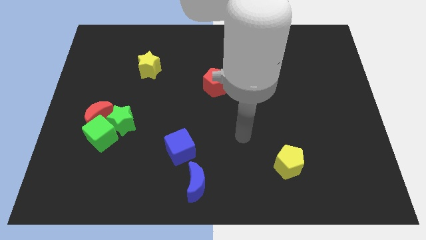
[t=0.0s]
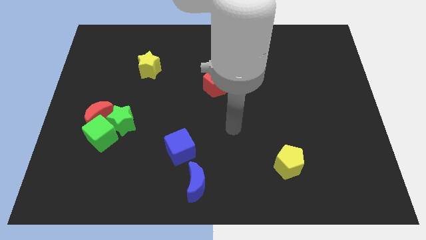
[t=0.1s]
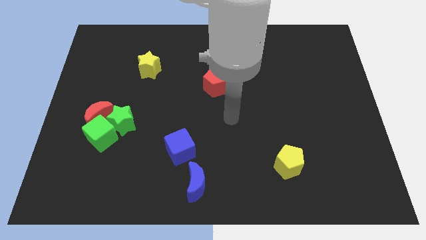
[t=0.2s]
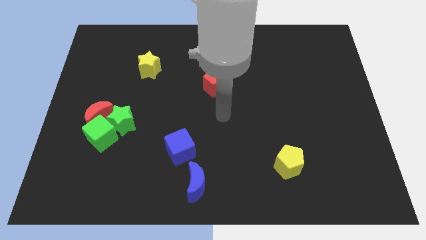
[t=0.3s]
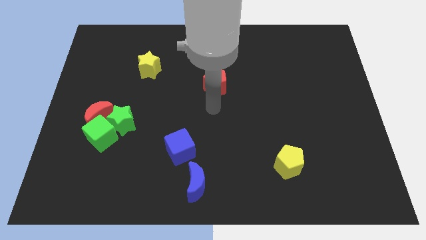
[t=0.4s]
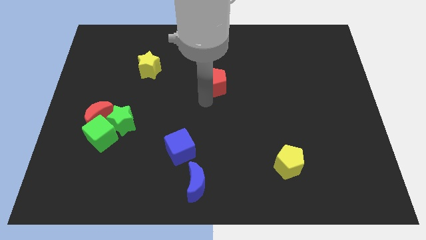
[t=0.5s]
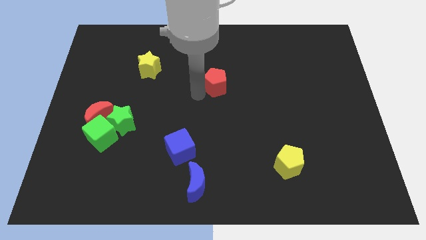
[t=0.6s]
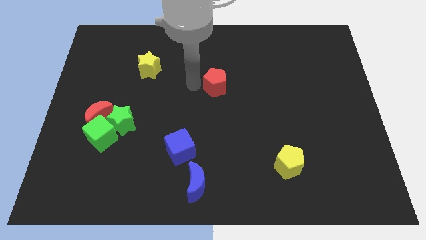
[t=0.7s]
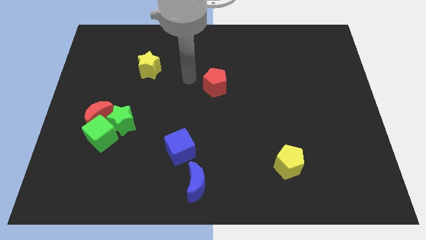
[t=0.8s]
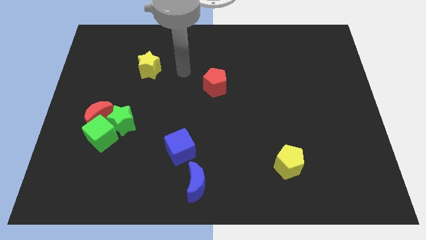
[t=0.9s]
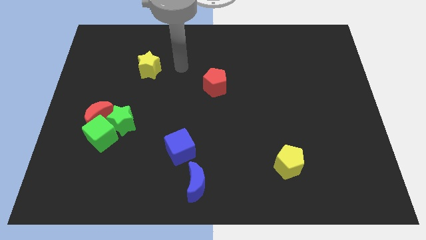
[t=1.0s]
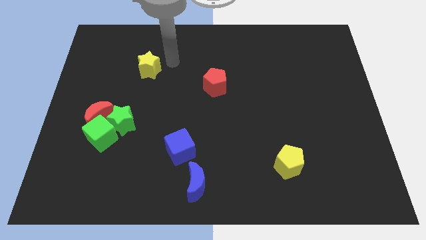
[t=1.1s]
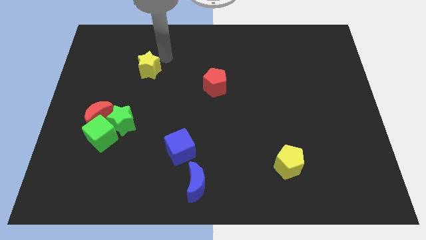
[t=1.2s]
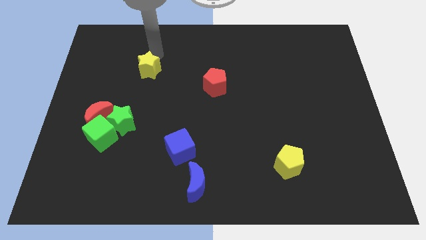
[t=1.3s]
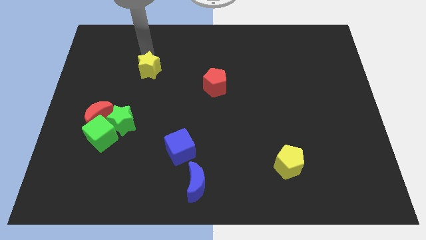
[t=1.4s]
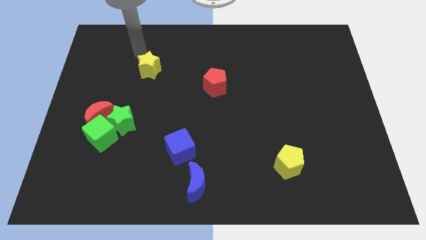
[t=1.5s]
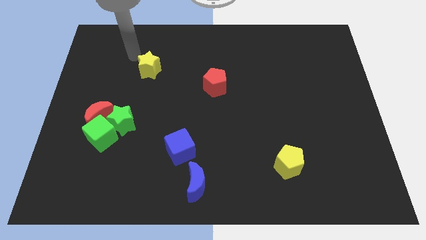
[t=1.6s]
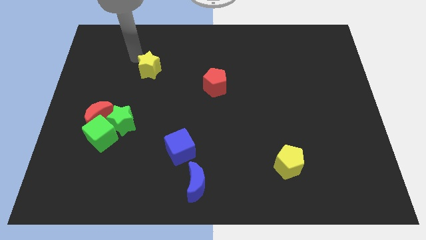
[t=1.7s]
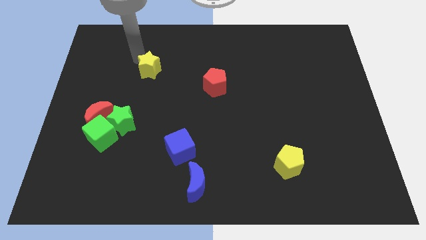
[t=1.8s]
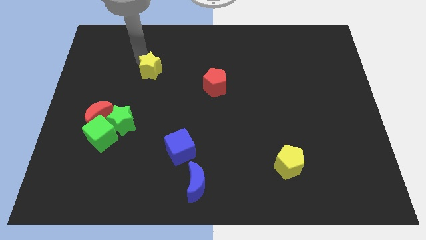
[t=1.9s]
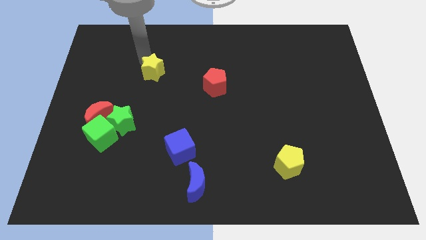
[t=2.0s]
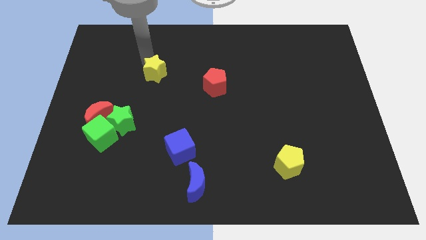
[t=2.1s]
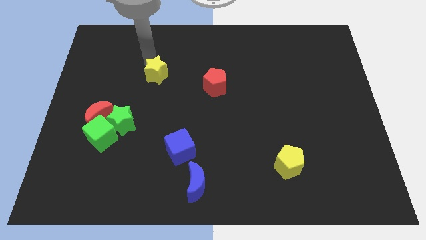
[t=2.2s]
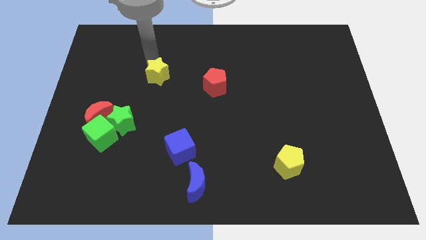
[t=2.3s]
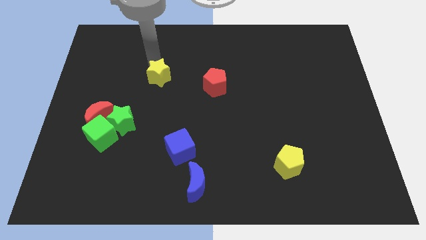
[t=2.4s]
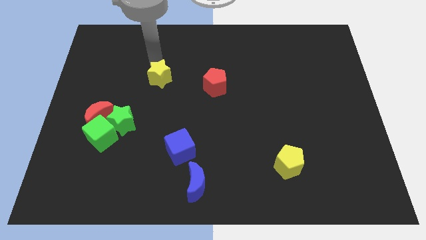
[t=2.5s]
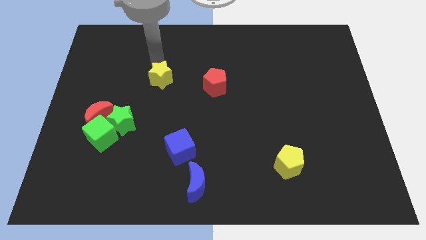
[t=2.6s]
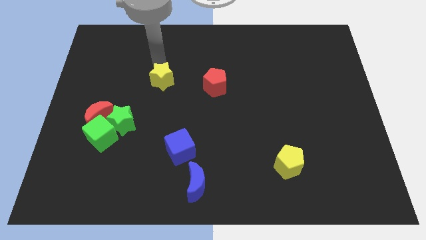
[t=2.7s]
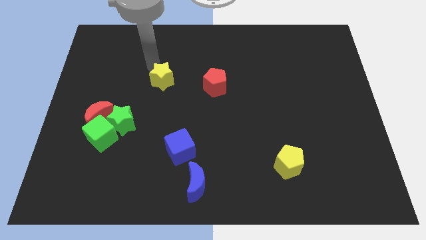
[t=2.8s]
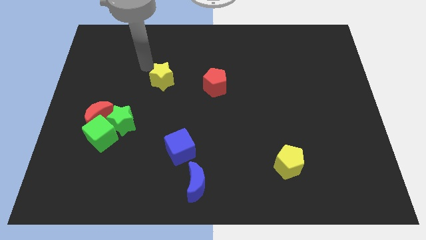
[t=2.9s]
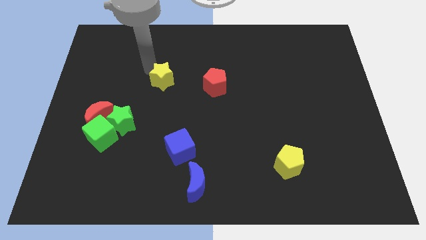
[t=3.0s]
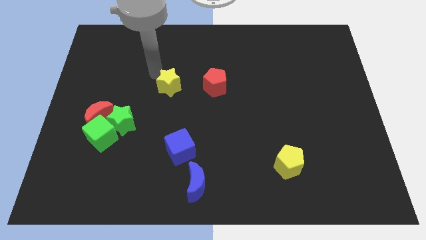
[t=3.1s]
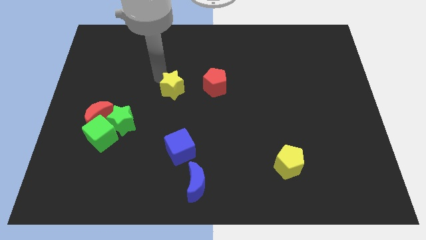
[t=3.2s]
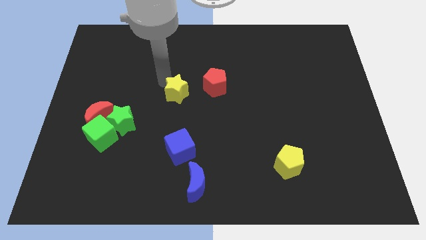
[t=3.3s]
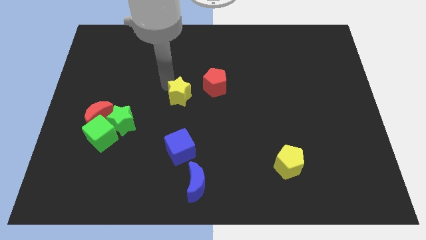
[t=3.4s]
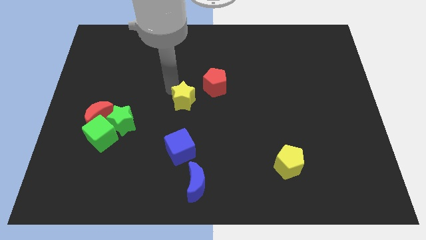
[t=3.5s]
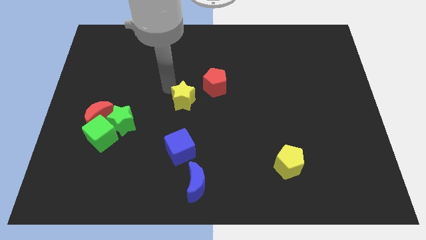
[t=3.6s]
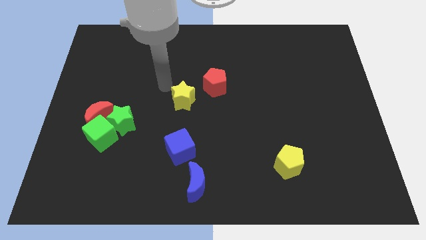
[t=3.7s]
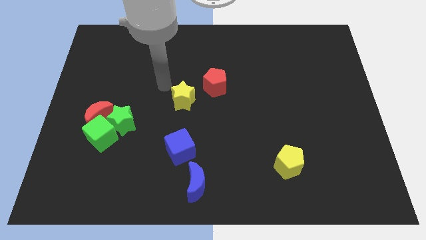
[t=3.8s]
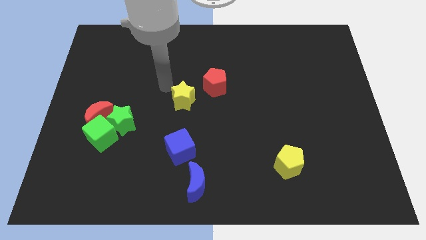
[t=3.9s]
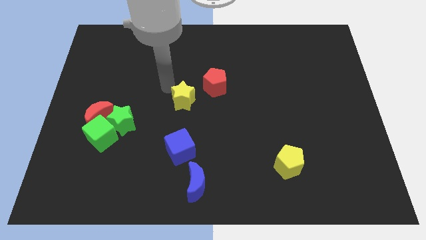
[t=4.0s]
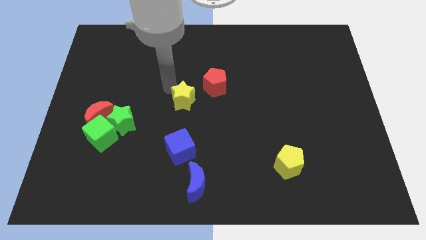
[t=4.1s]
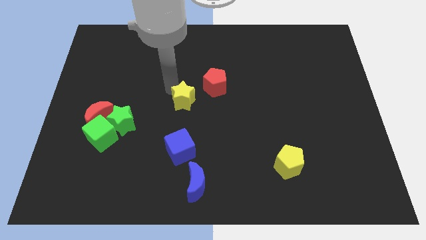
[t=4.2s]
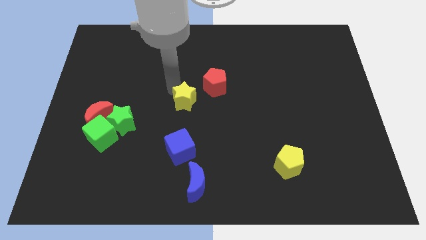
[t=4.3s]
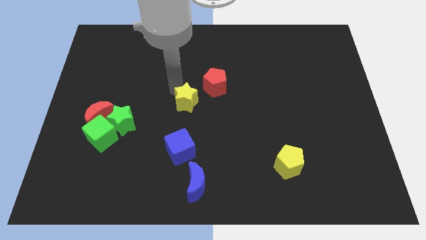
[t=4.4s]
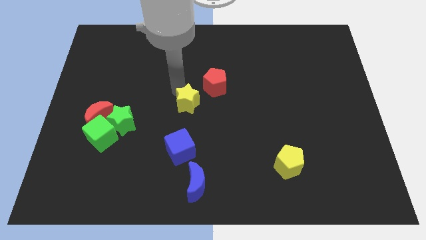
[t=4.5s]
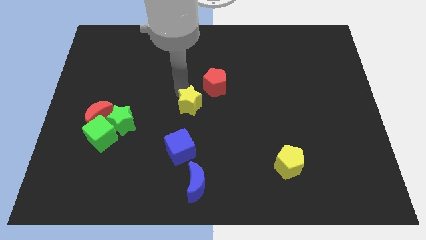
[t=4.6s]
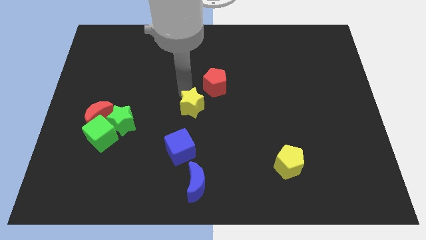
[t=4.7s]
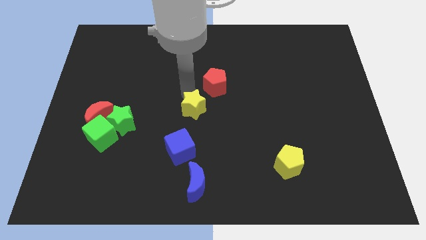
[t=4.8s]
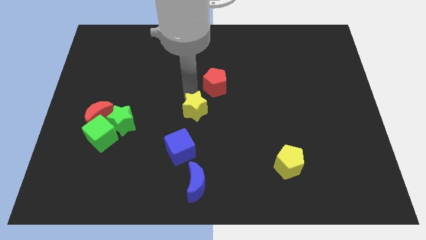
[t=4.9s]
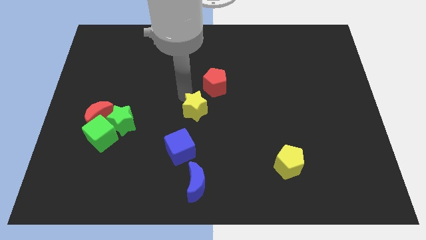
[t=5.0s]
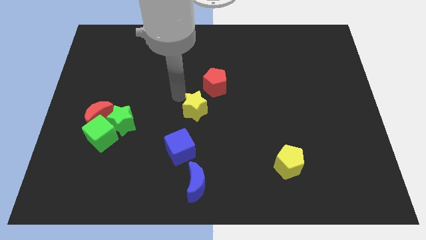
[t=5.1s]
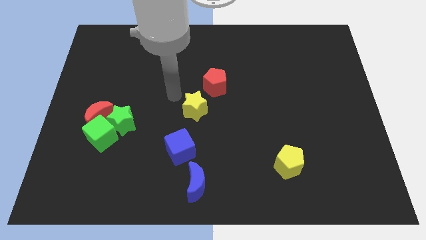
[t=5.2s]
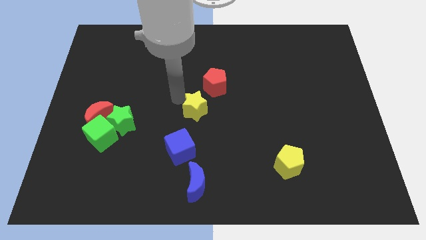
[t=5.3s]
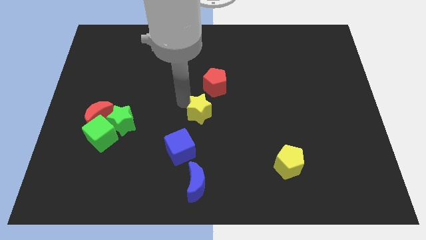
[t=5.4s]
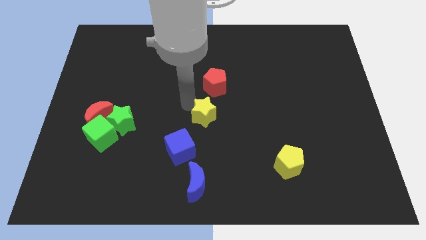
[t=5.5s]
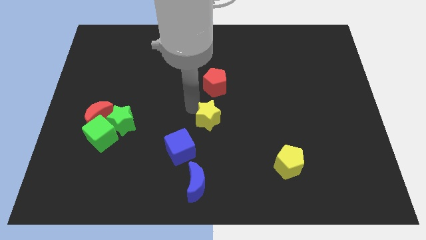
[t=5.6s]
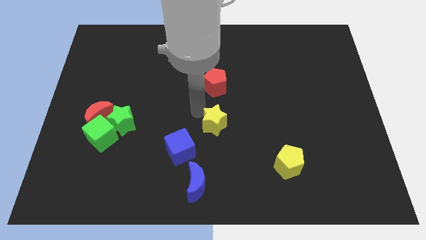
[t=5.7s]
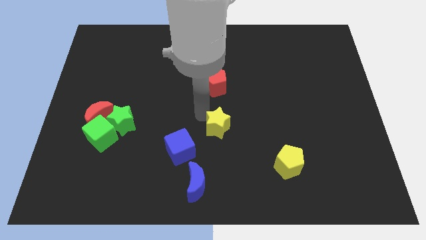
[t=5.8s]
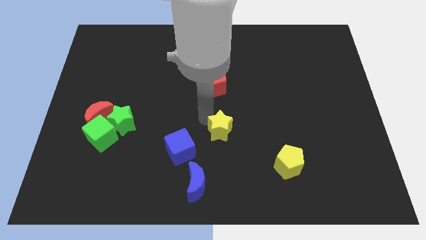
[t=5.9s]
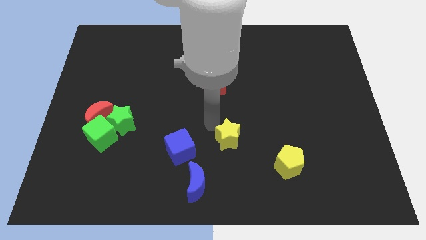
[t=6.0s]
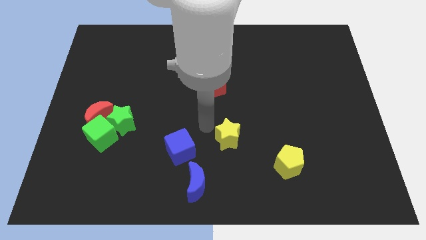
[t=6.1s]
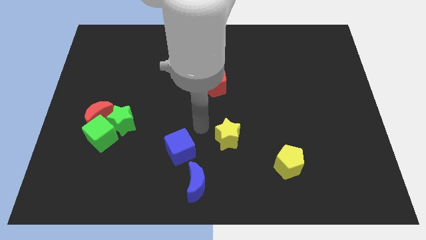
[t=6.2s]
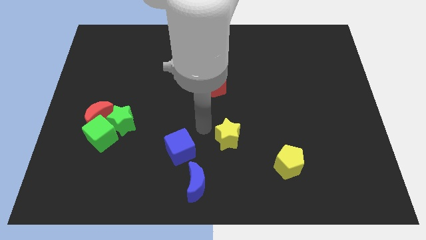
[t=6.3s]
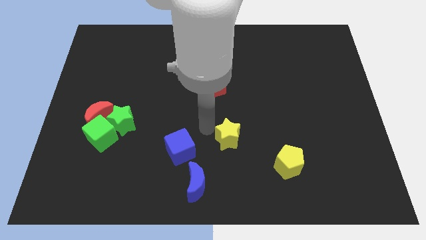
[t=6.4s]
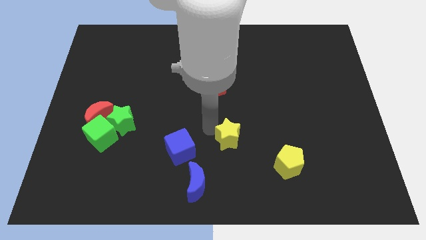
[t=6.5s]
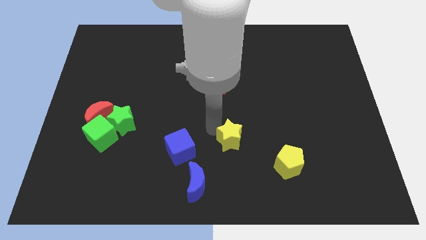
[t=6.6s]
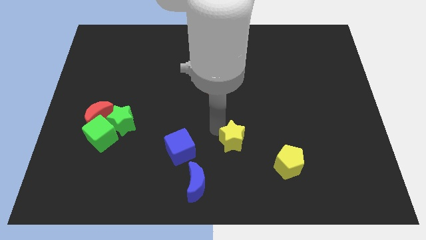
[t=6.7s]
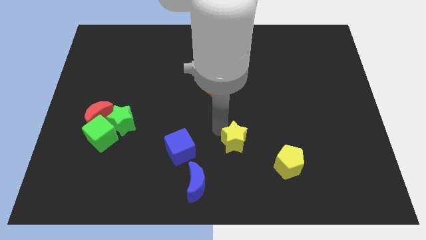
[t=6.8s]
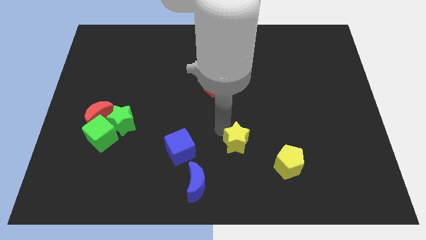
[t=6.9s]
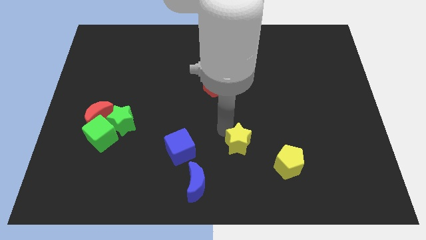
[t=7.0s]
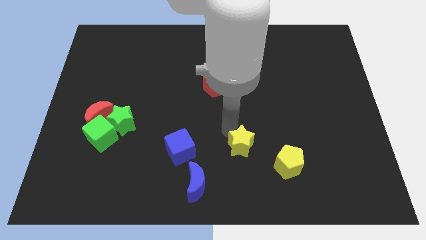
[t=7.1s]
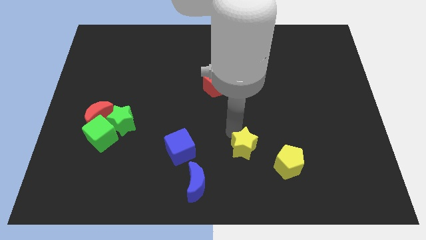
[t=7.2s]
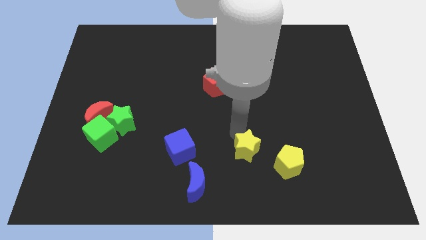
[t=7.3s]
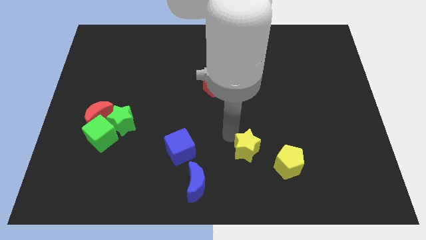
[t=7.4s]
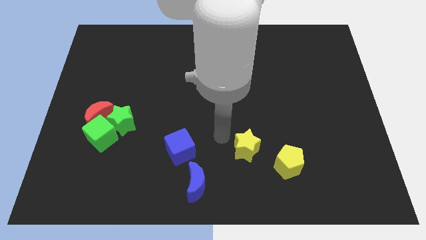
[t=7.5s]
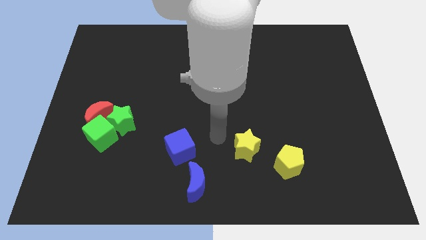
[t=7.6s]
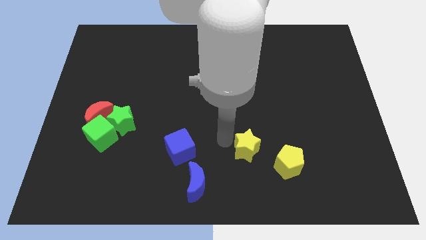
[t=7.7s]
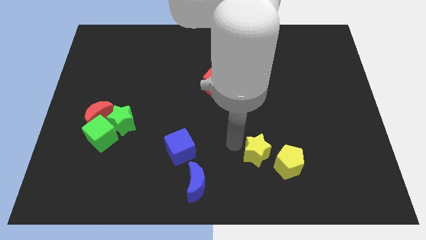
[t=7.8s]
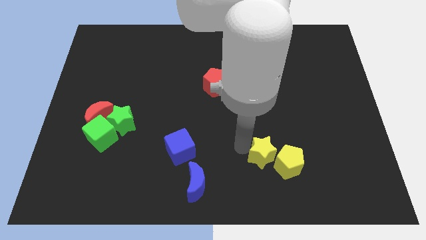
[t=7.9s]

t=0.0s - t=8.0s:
push the yellow star to the yellow pentagon
